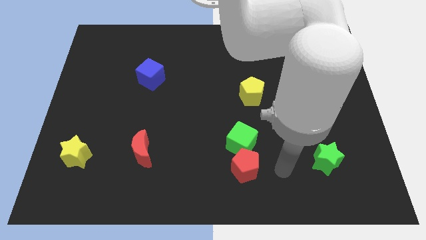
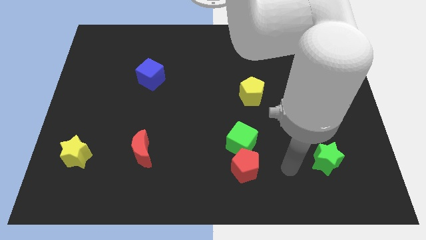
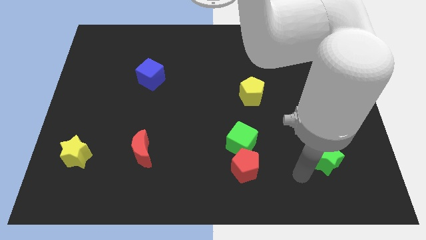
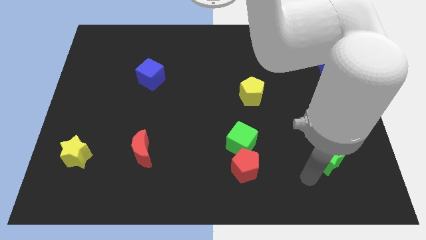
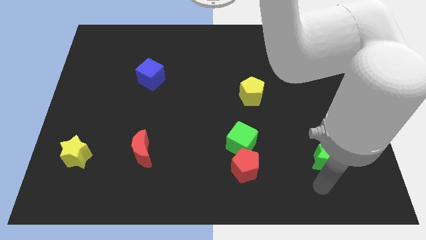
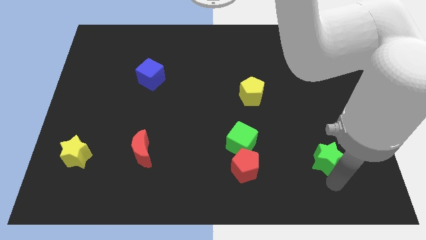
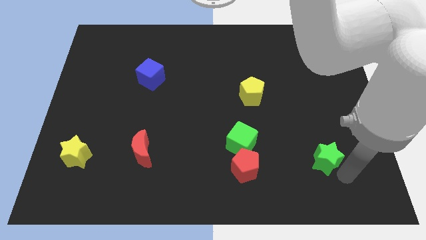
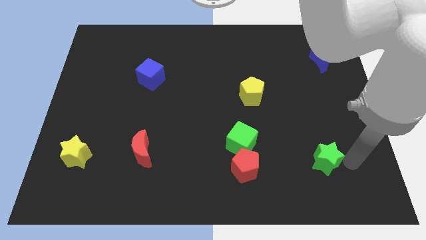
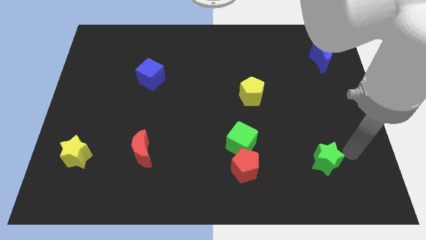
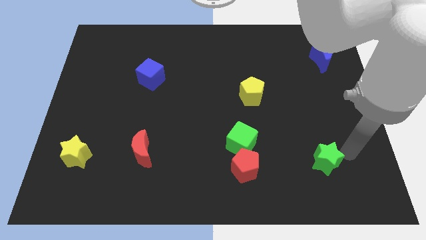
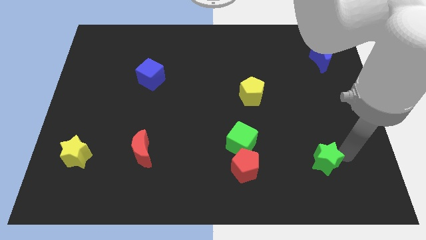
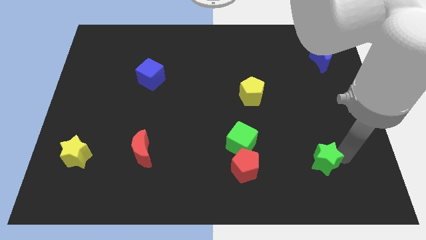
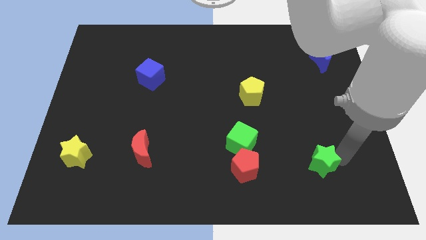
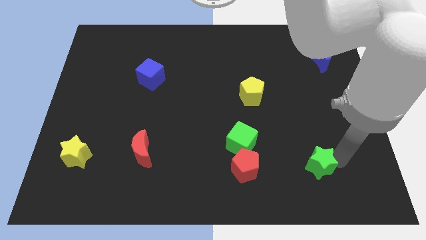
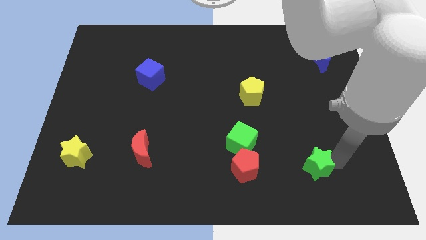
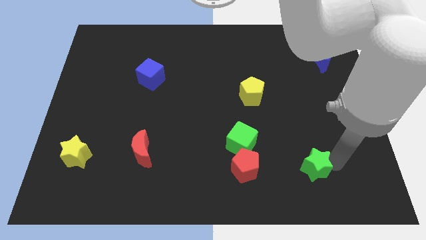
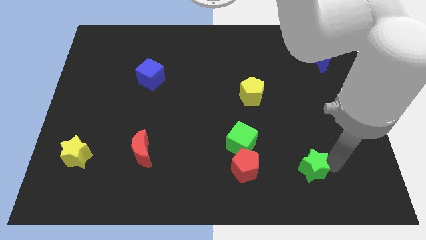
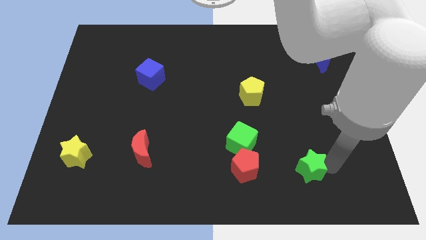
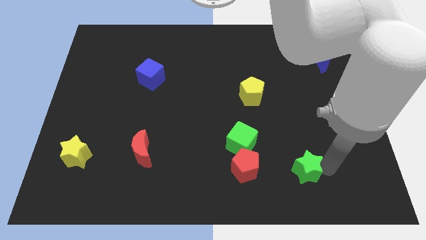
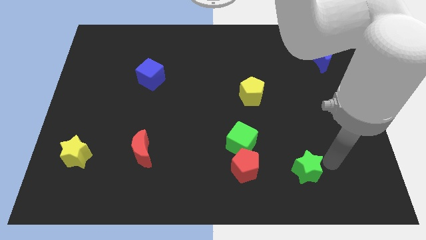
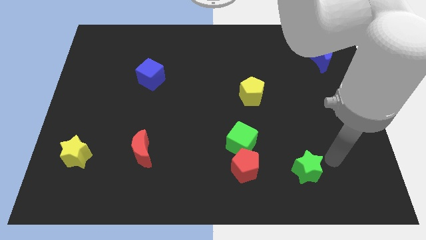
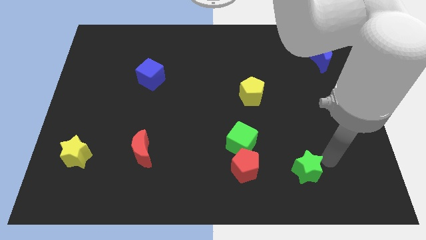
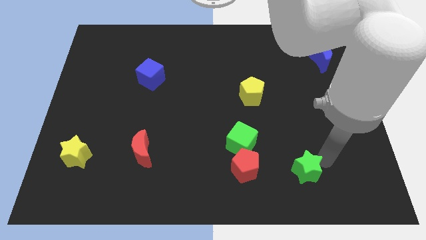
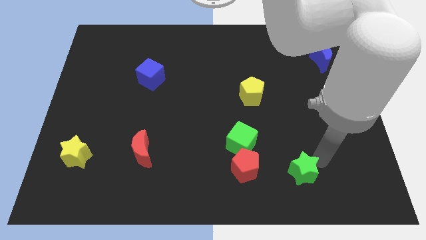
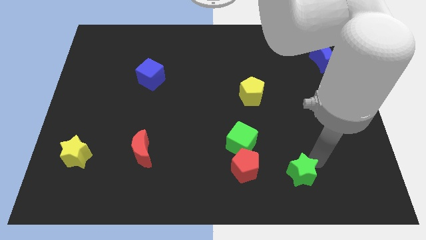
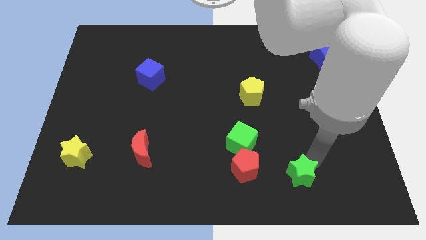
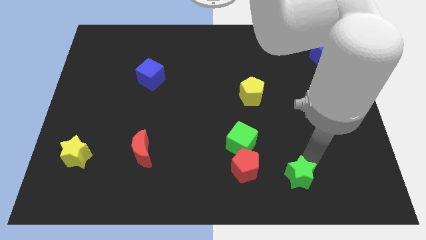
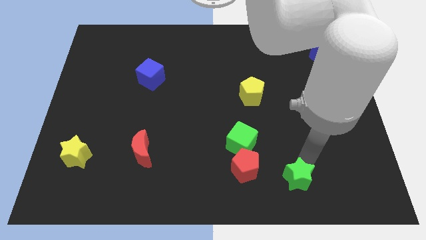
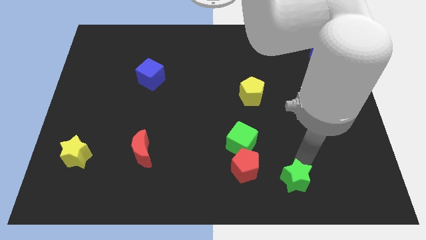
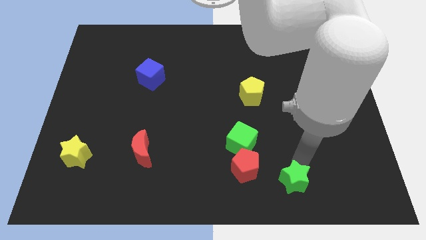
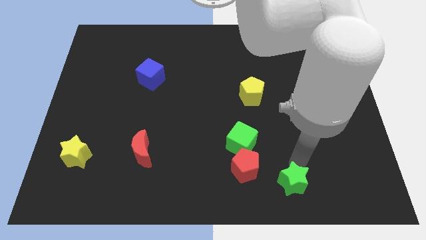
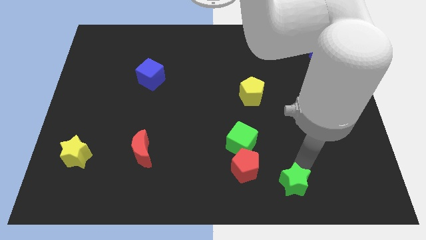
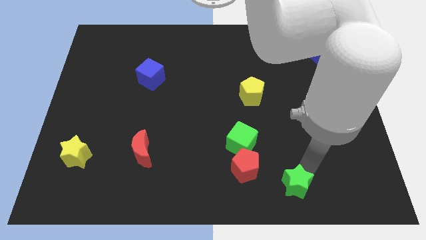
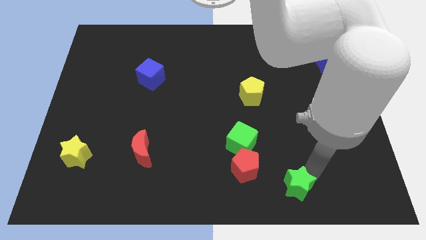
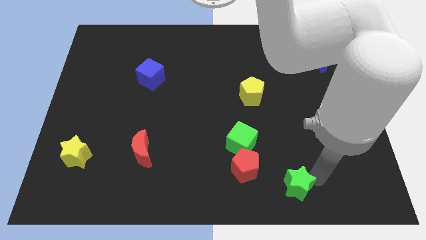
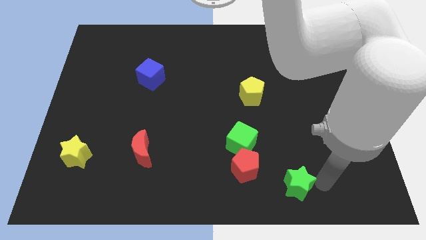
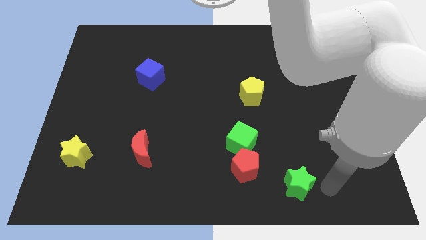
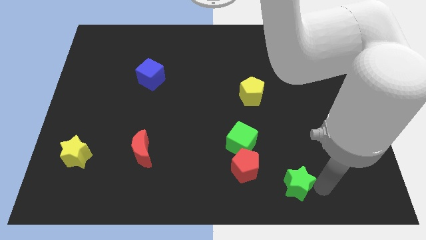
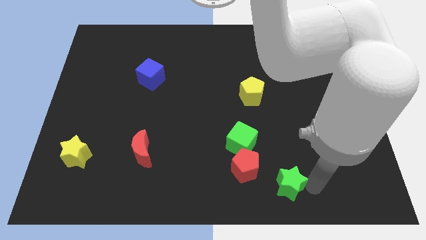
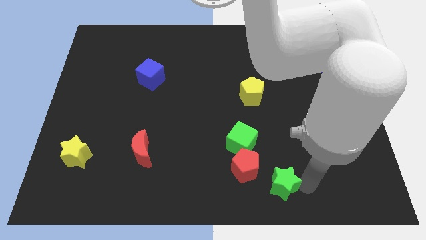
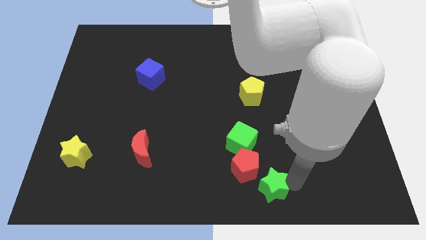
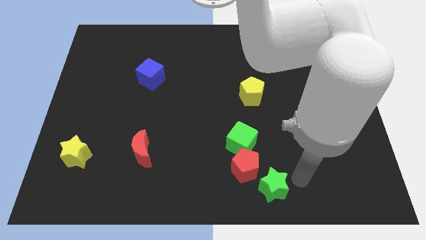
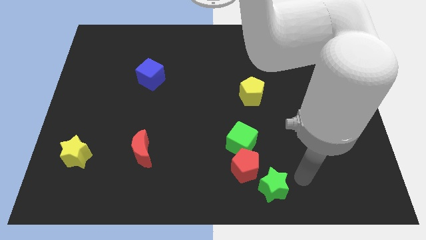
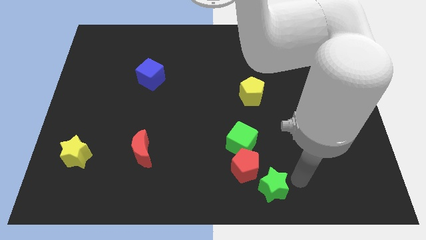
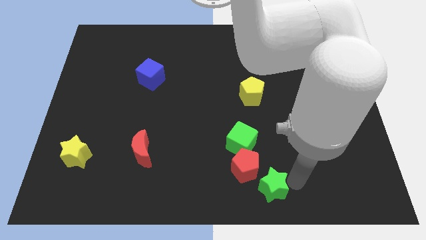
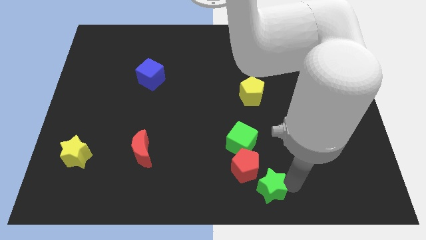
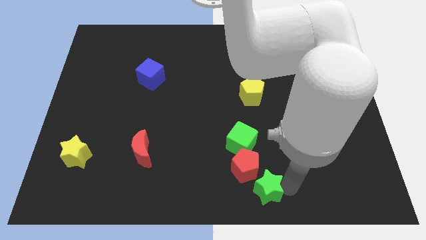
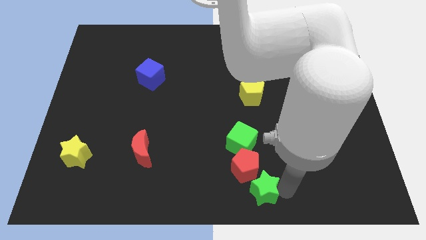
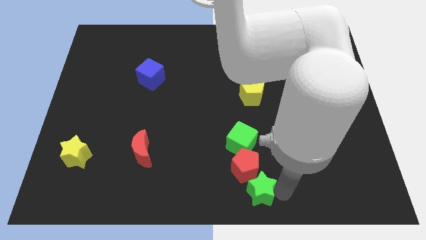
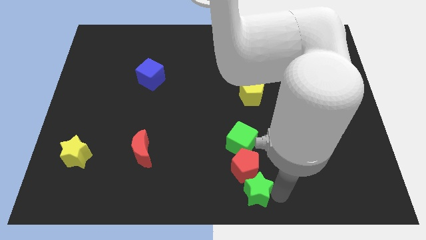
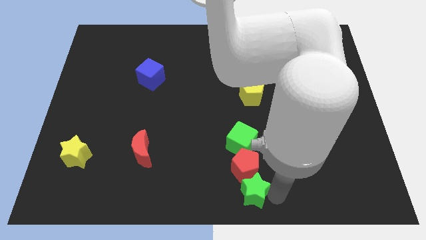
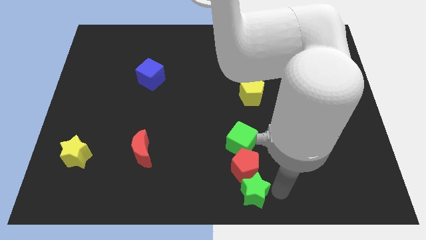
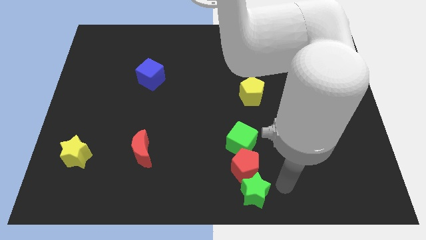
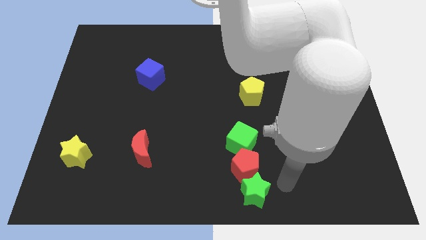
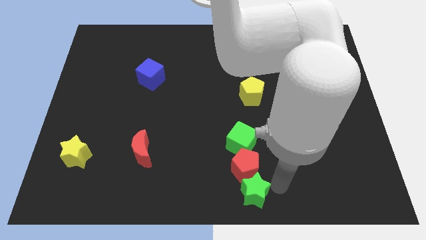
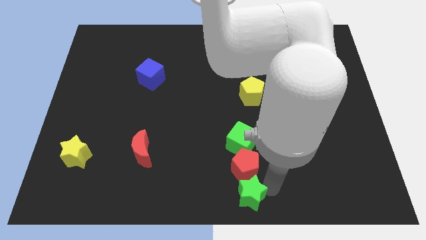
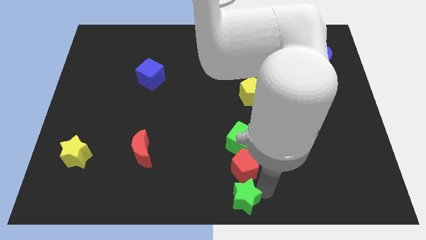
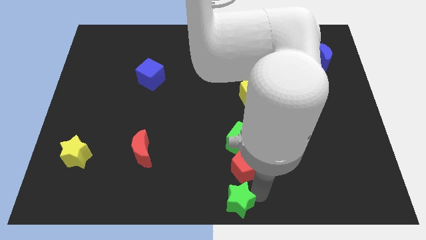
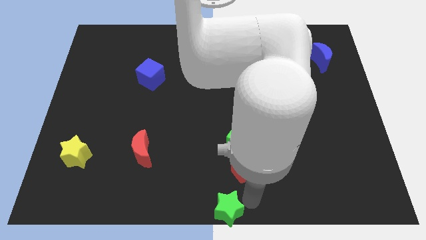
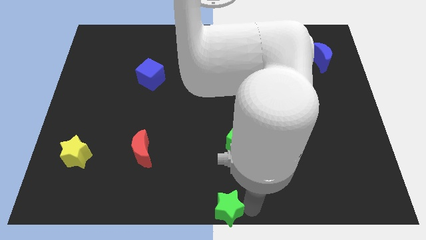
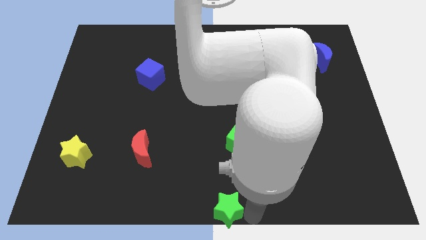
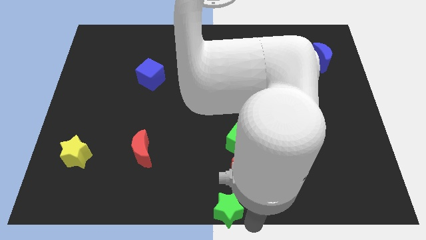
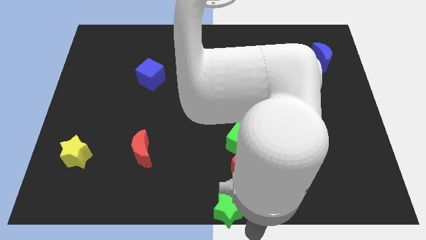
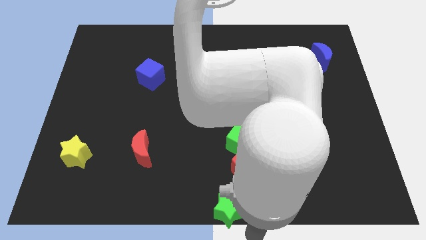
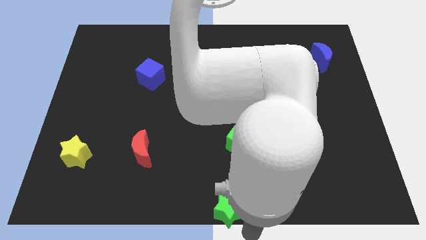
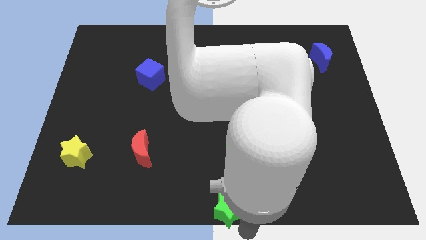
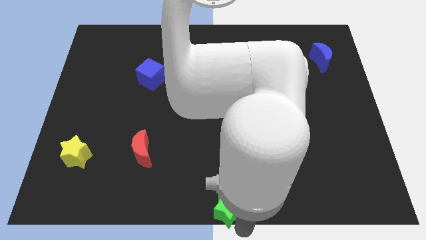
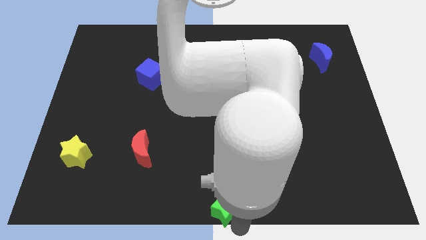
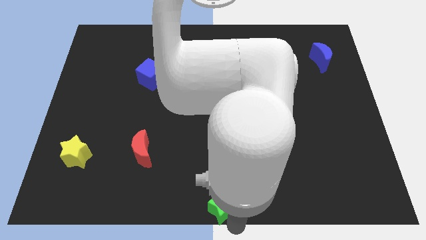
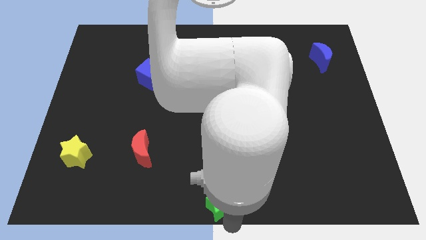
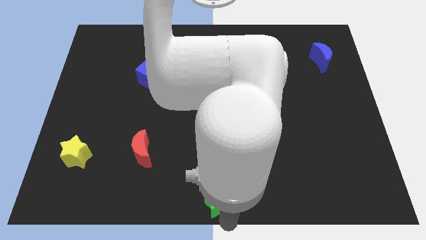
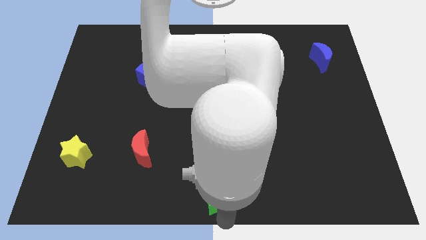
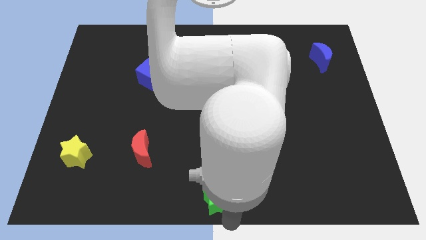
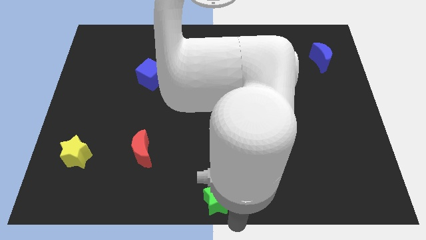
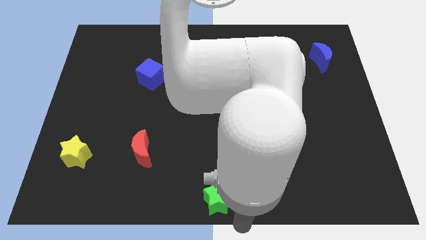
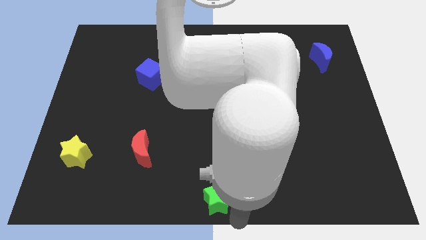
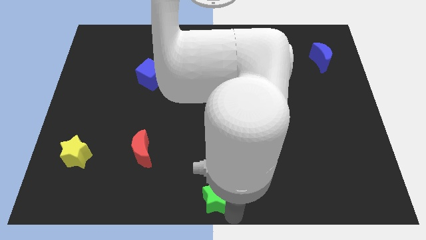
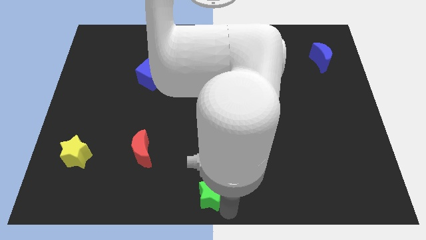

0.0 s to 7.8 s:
slide the green star left

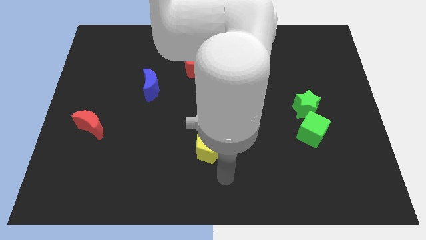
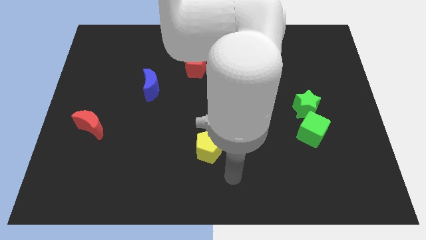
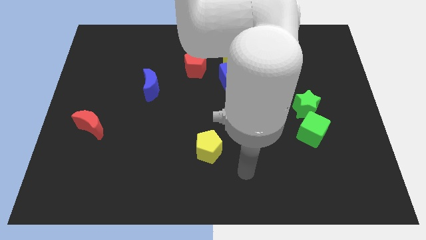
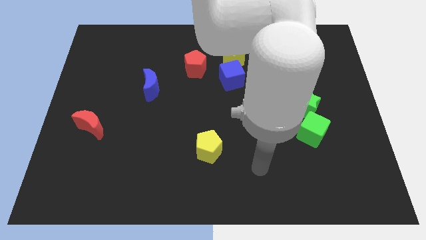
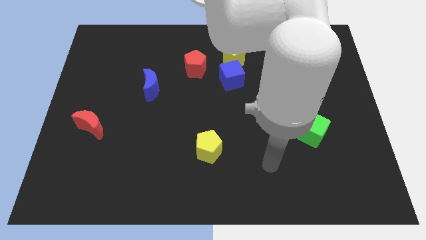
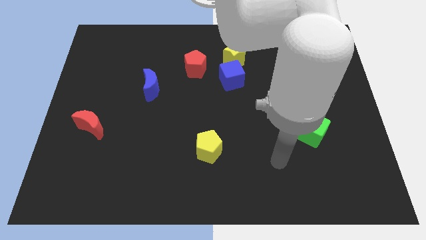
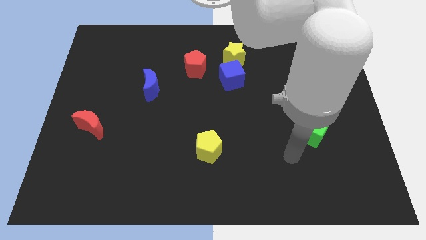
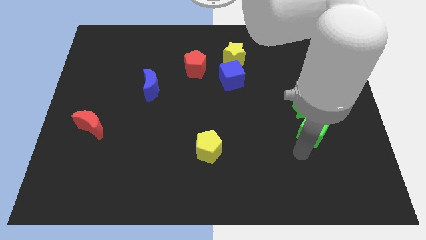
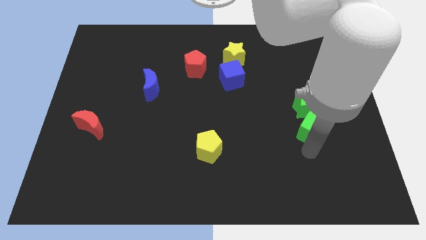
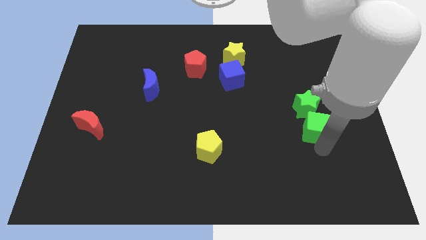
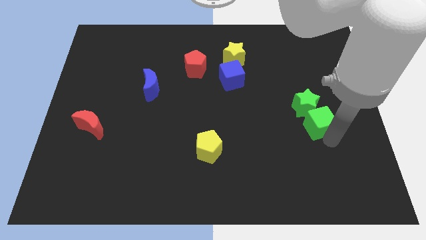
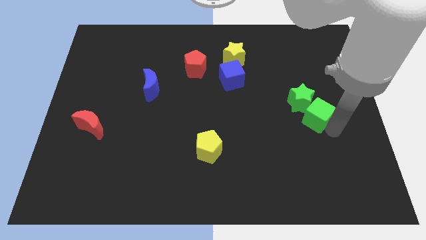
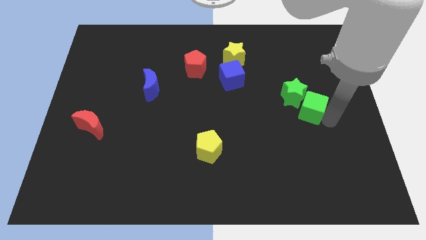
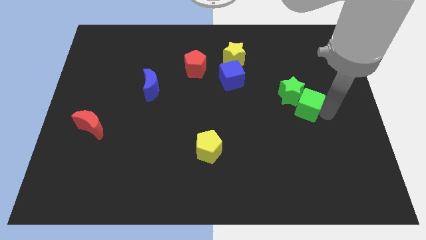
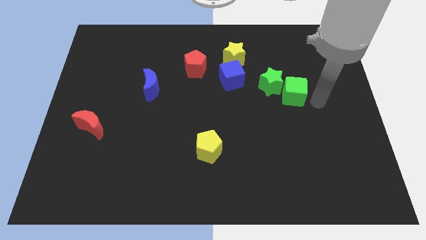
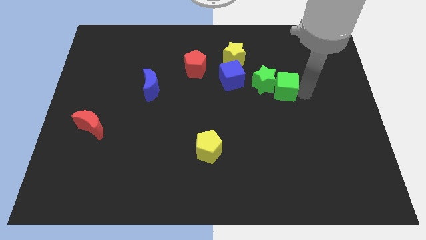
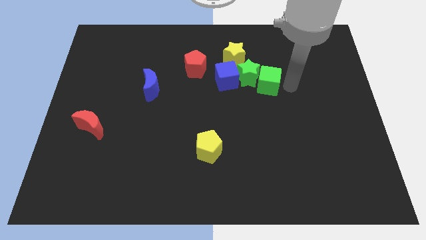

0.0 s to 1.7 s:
move the green star somewhat left
